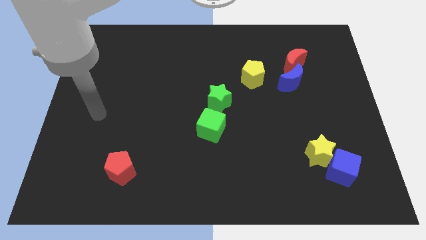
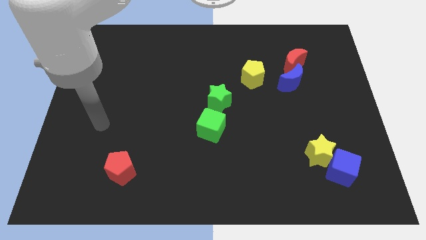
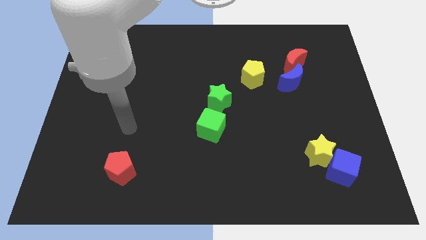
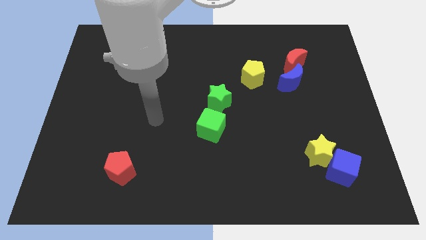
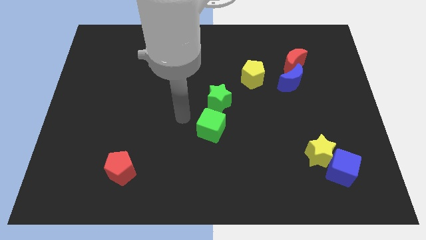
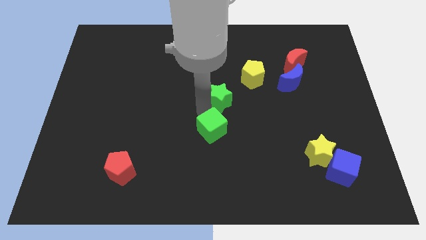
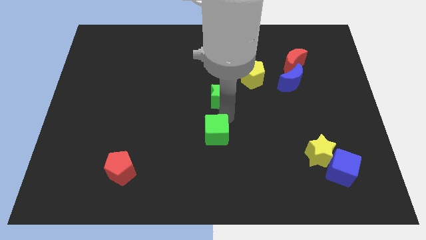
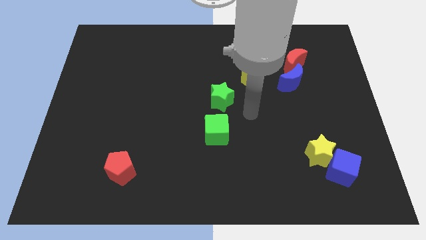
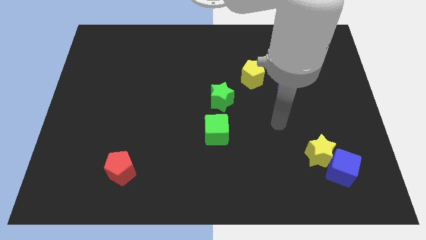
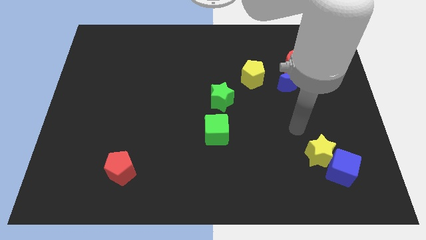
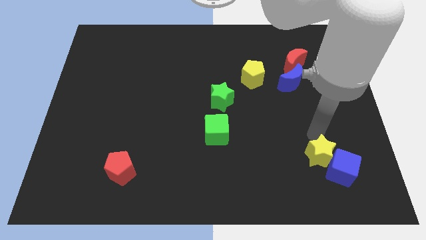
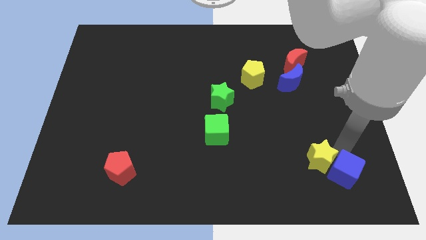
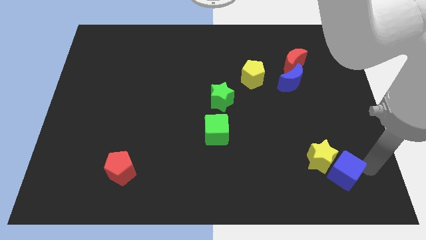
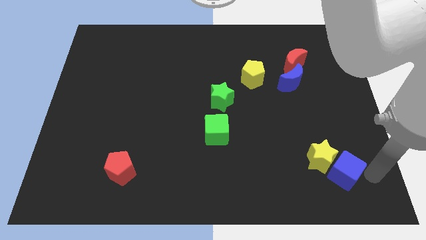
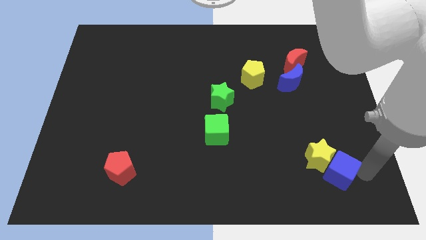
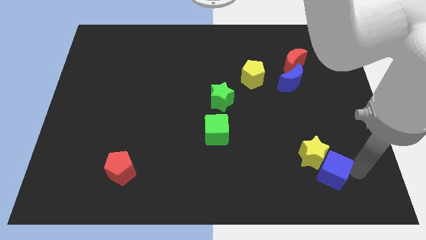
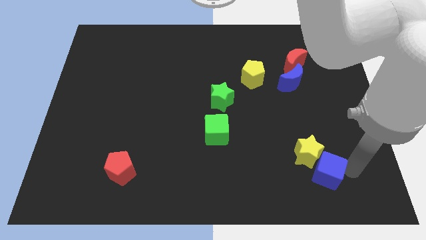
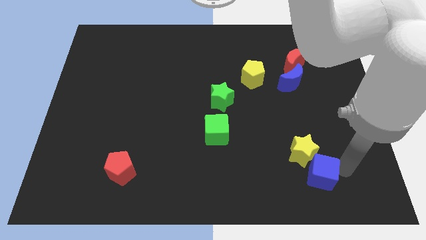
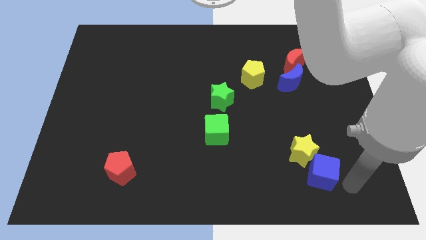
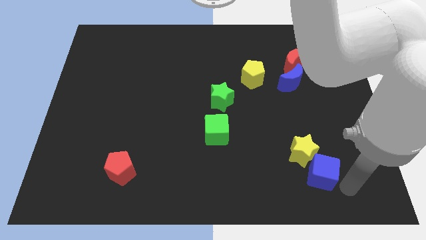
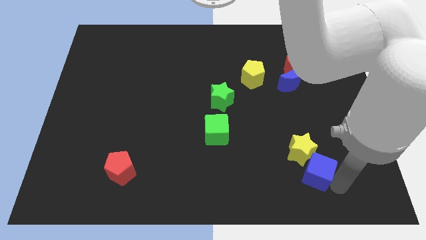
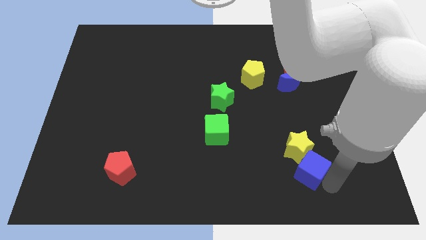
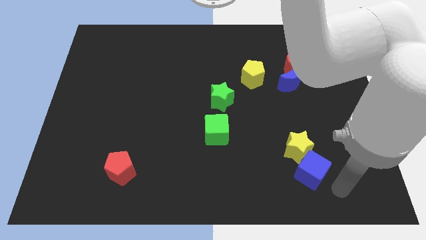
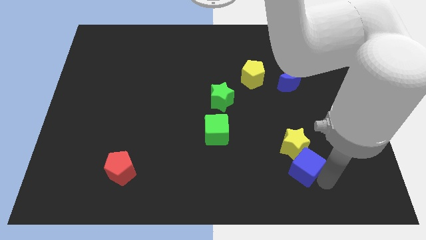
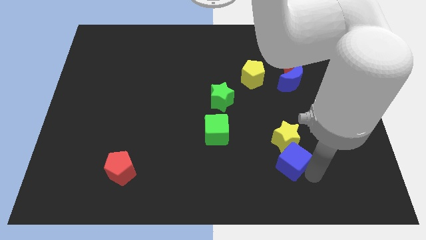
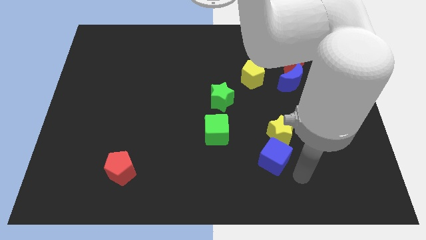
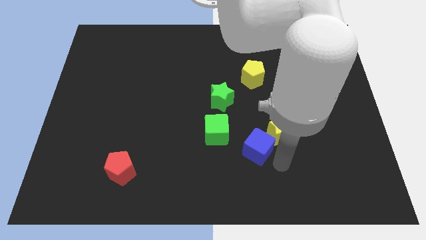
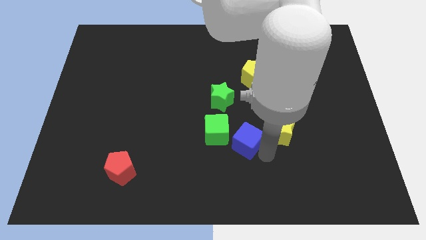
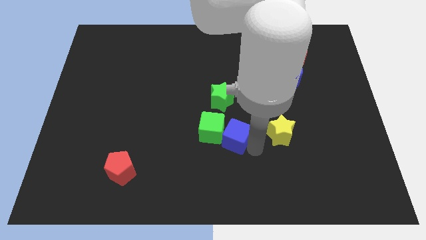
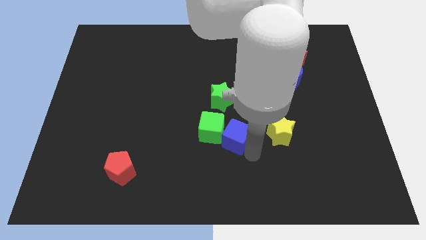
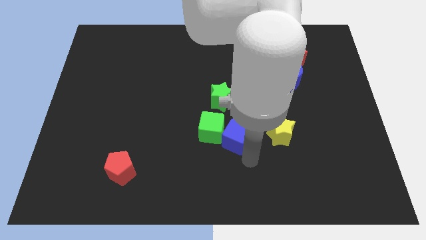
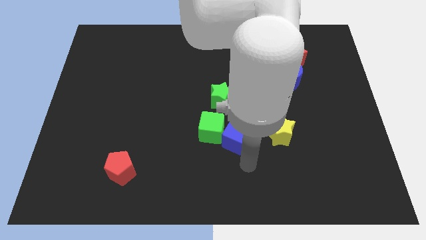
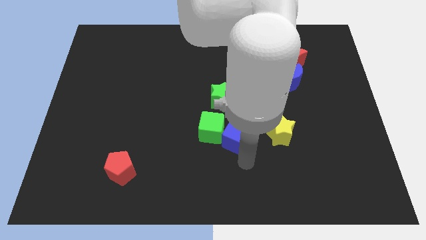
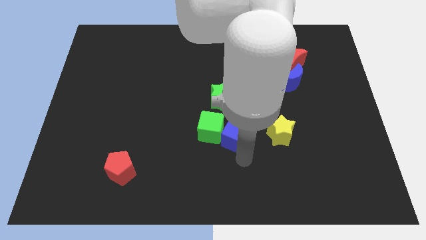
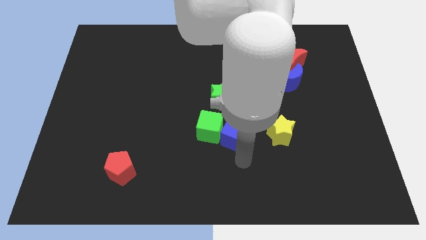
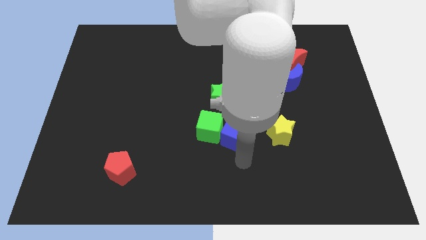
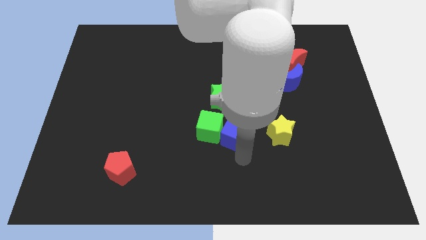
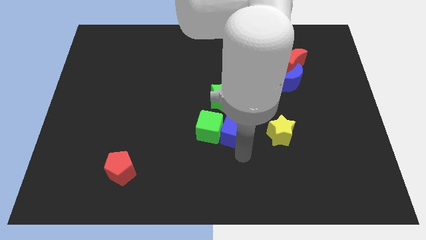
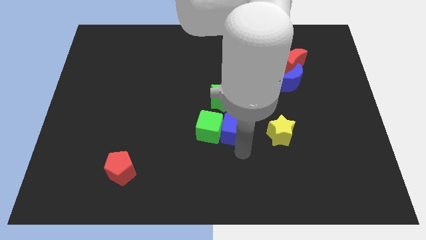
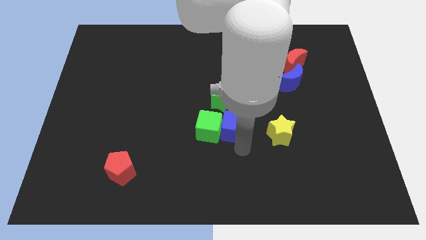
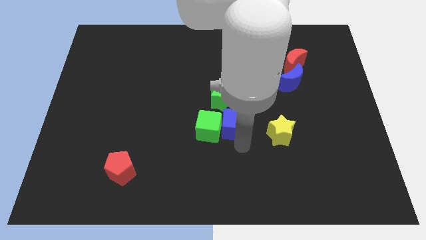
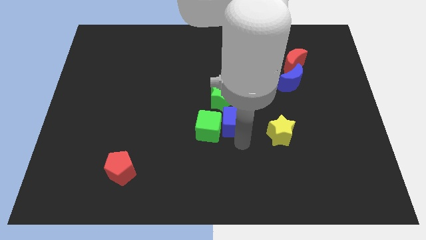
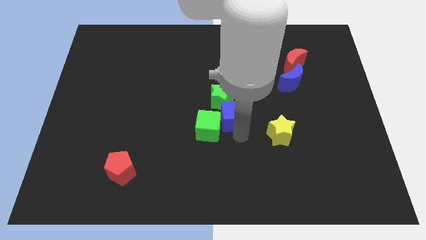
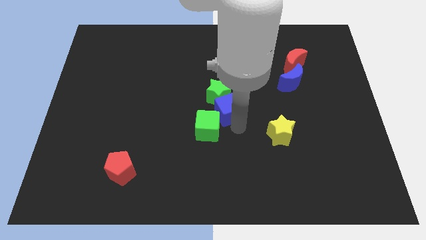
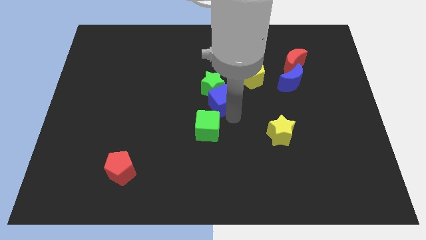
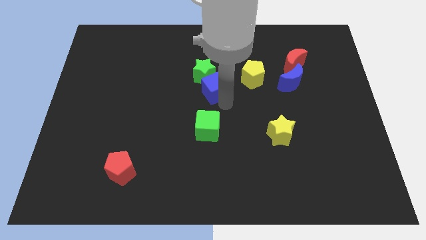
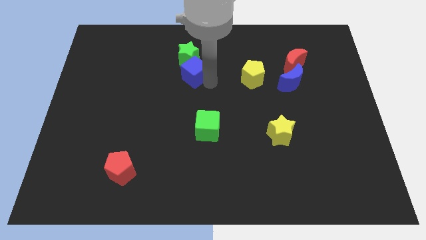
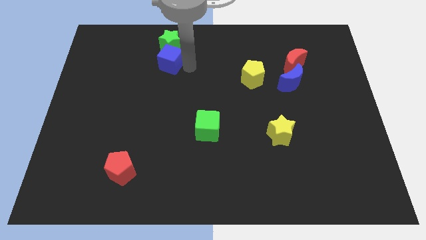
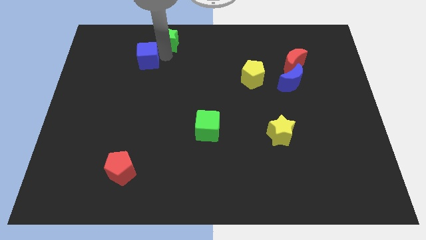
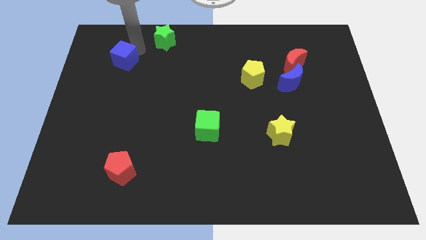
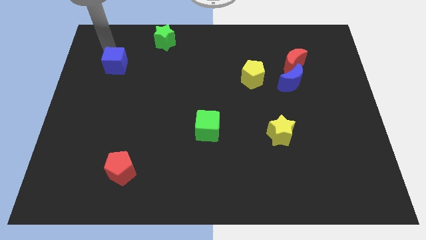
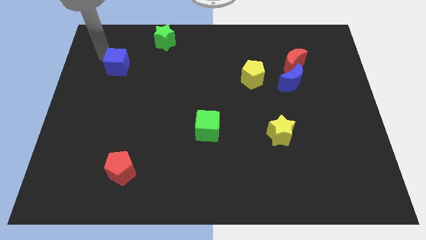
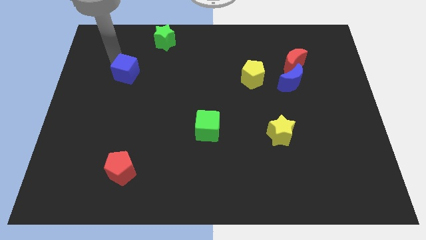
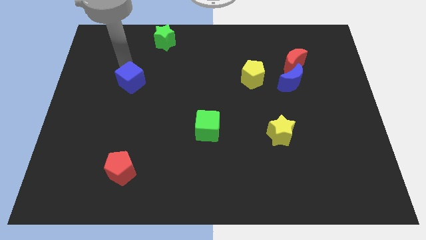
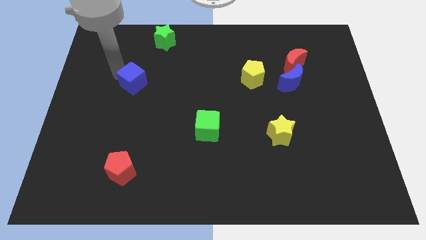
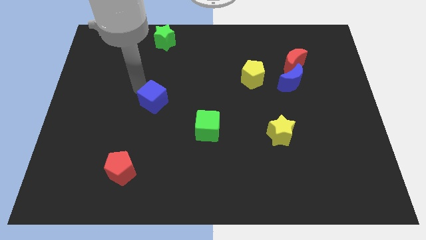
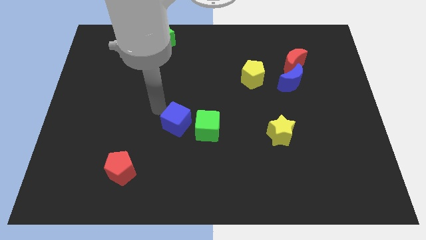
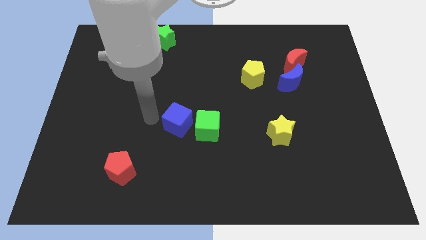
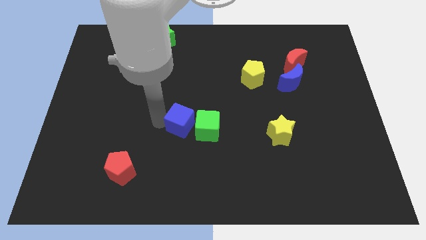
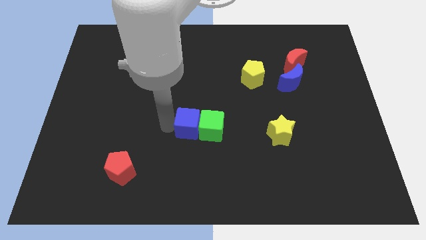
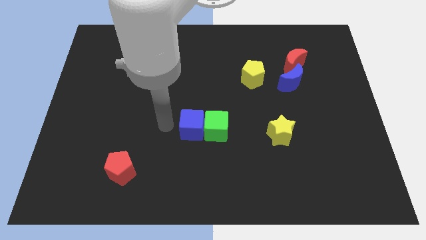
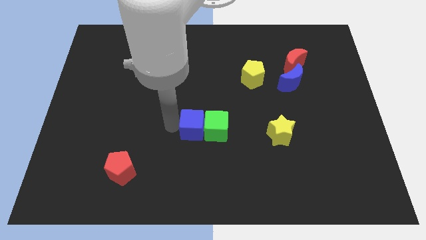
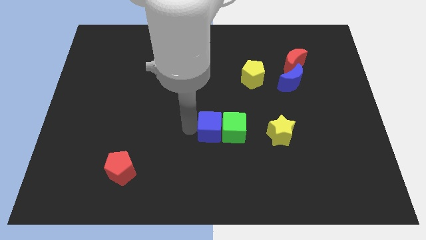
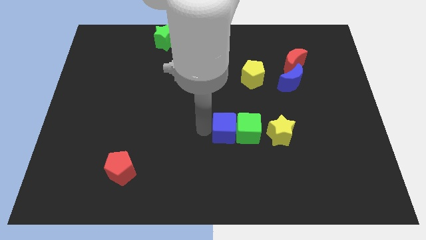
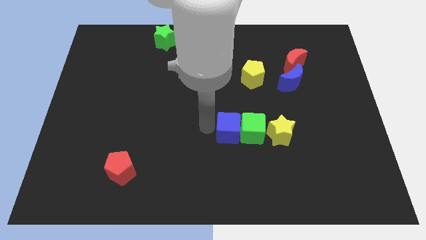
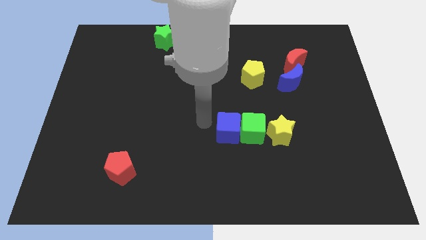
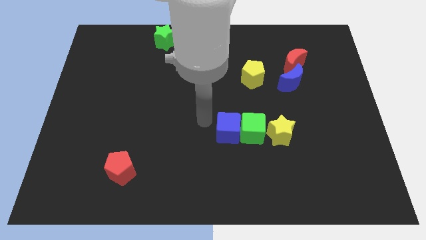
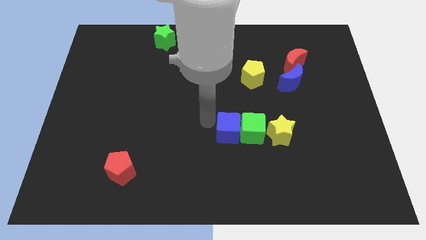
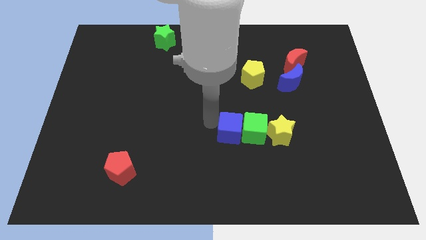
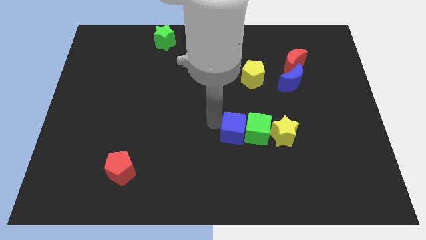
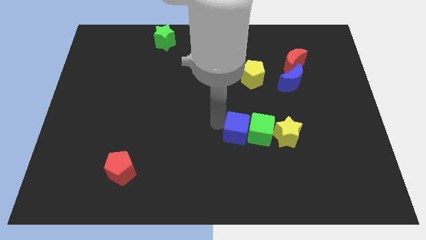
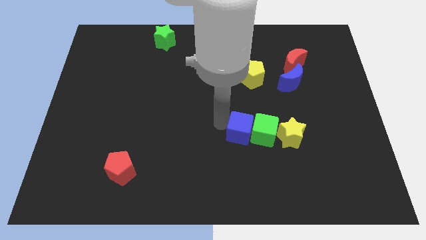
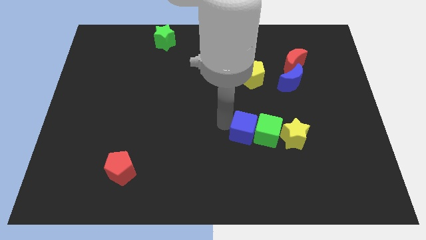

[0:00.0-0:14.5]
push the blue cube left of the yellow star
